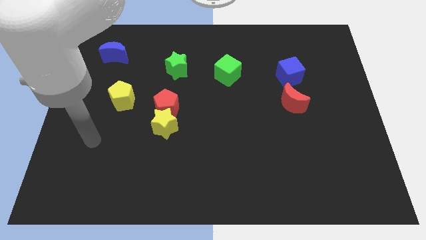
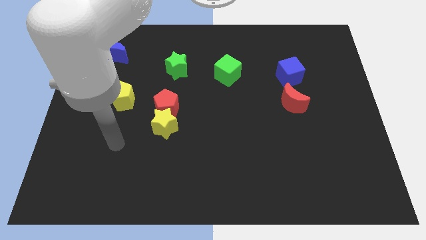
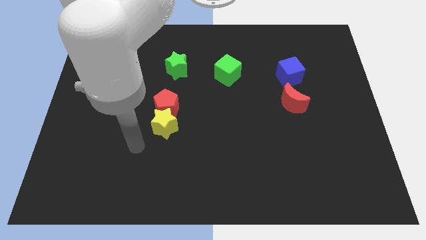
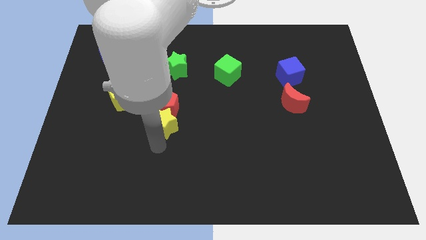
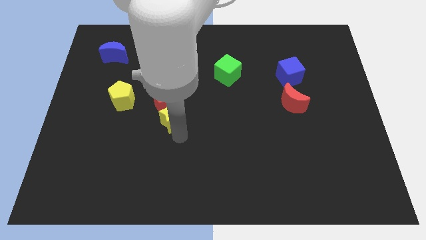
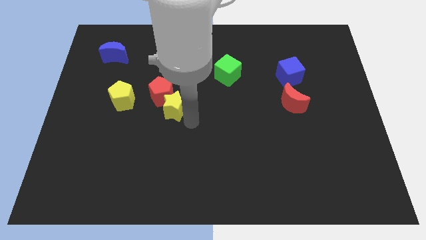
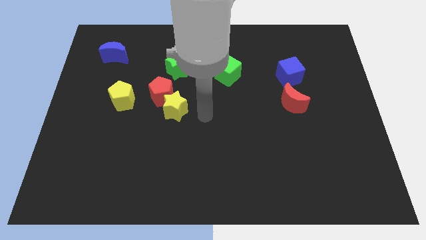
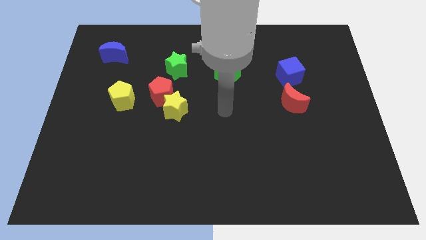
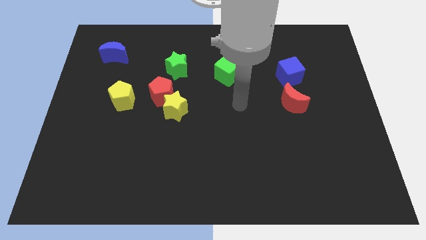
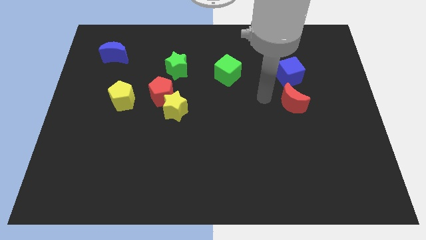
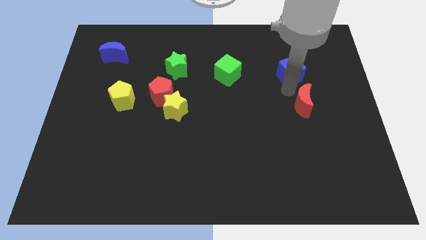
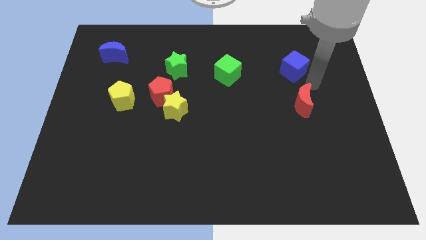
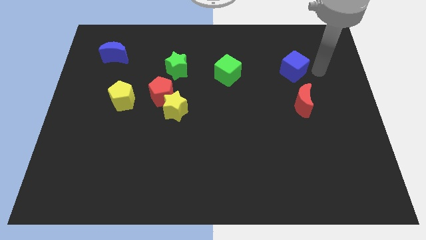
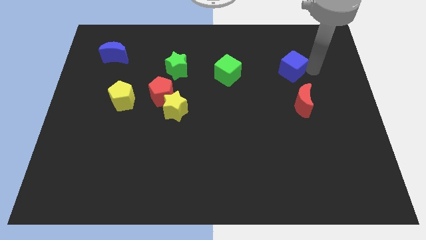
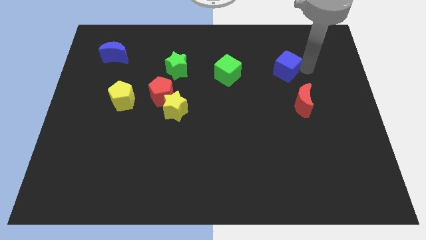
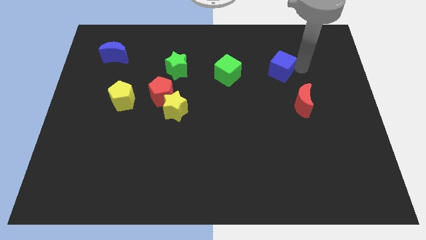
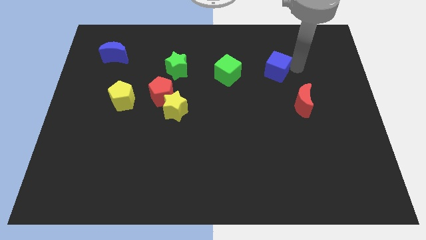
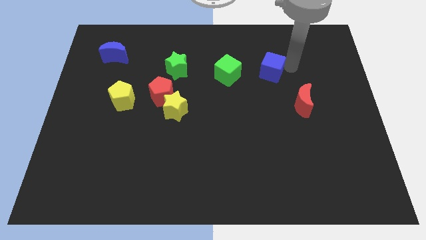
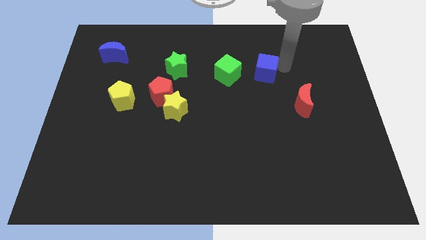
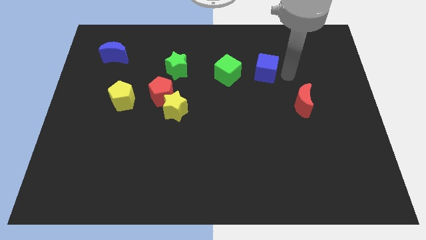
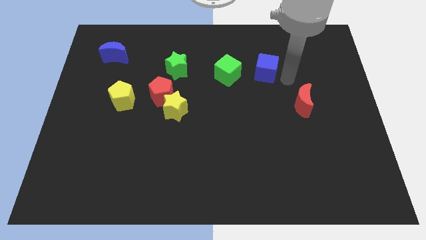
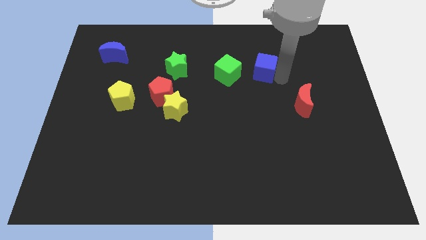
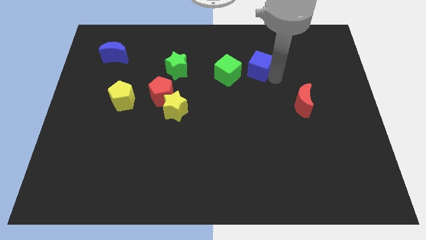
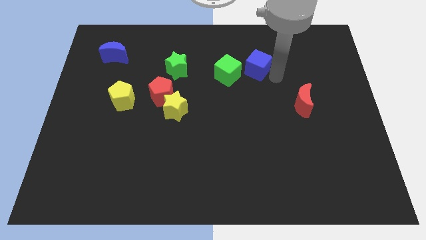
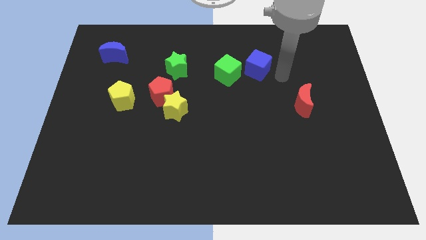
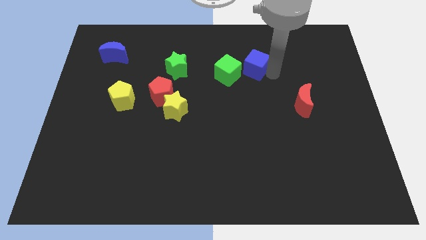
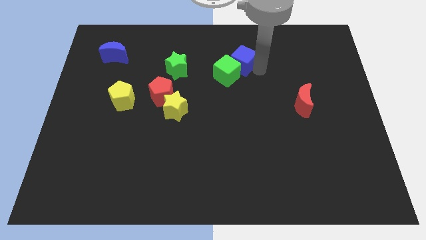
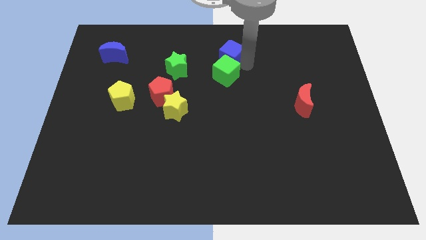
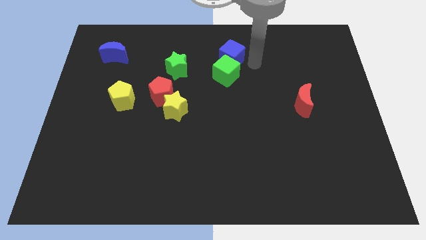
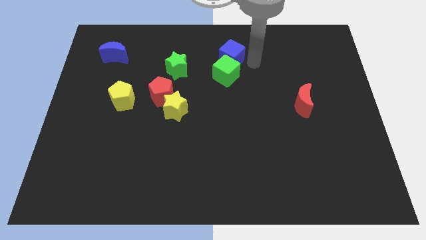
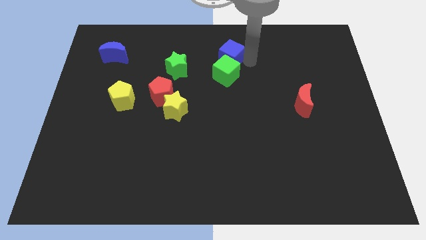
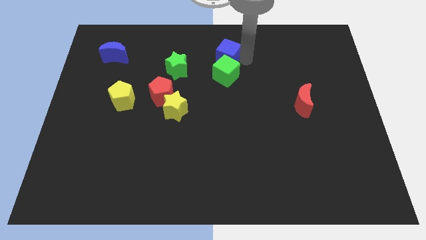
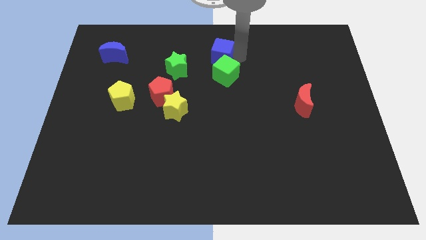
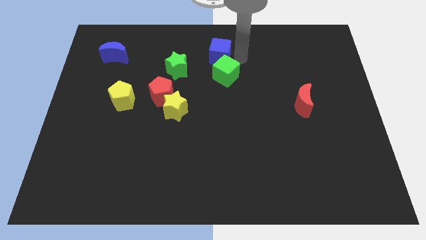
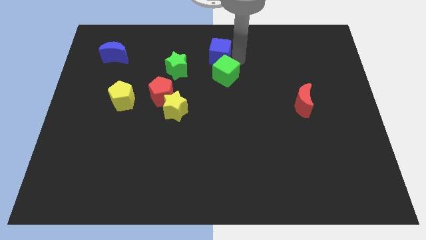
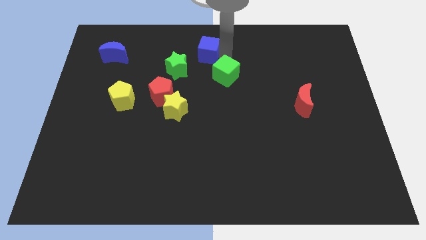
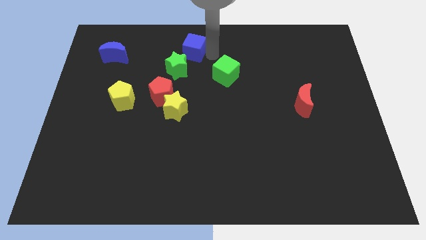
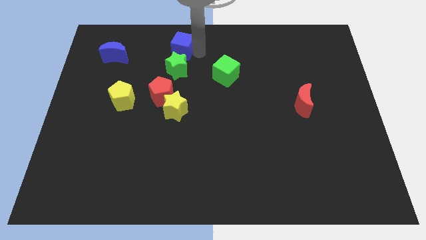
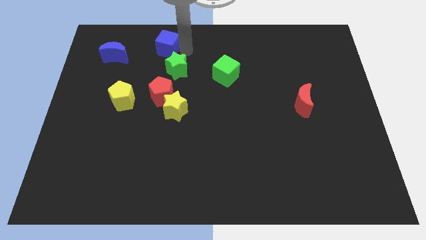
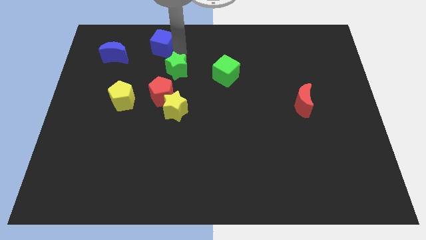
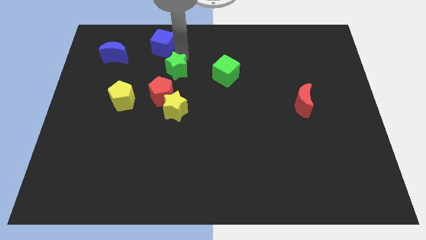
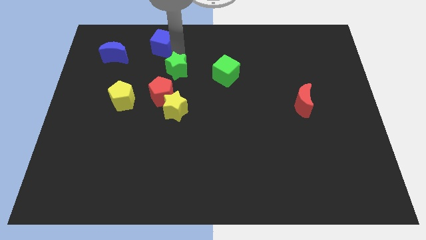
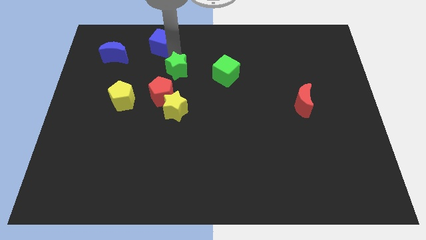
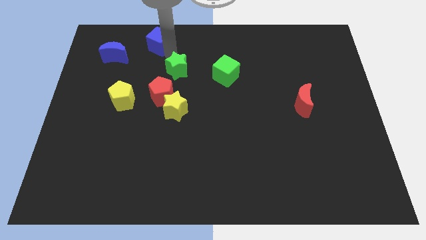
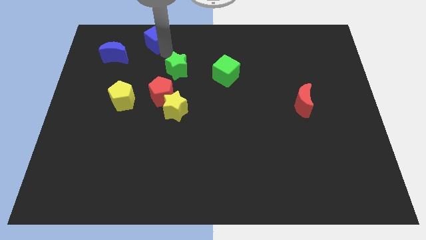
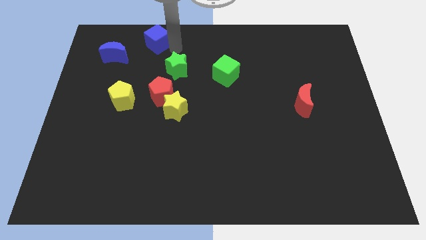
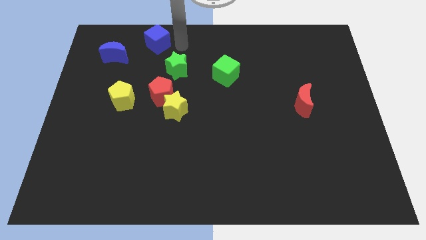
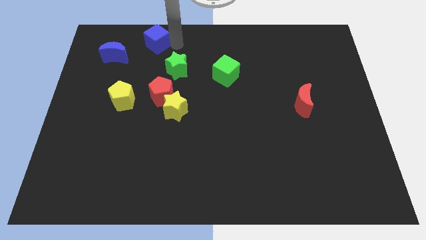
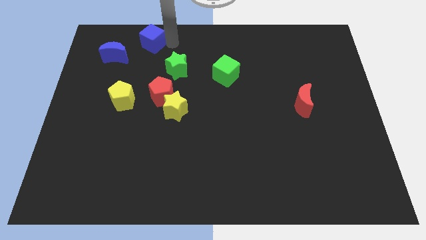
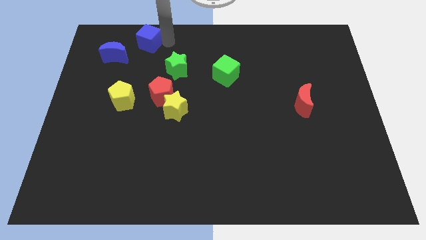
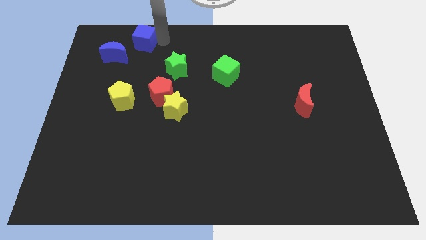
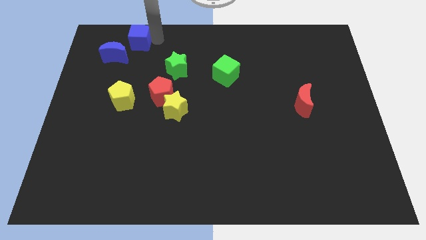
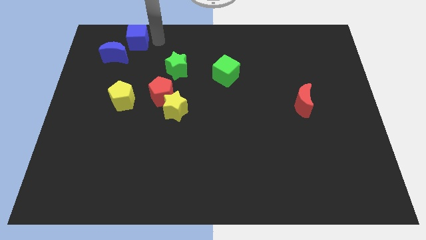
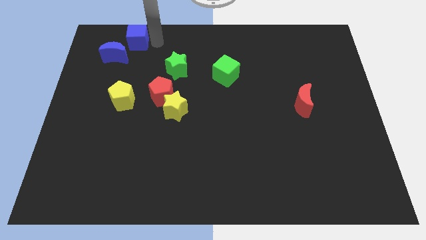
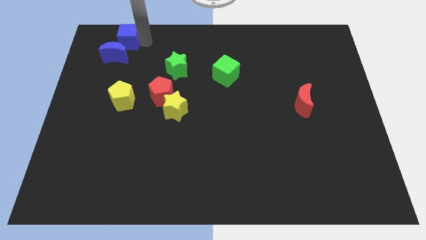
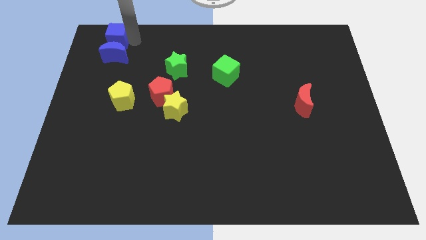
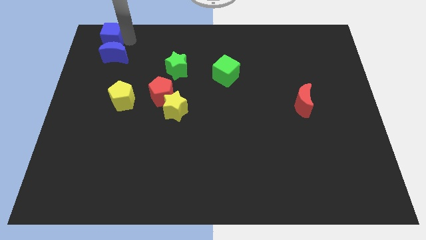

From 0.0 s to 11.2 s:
slide the blue cube to the top left corner

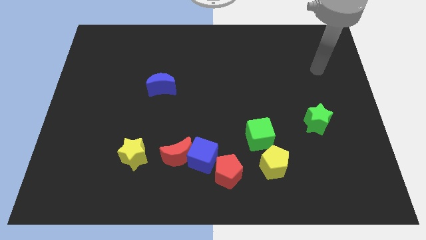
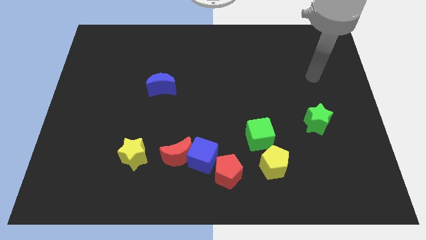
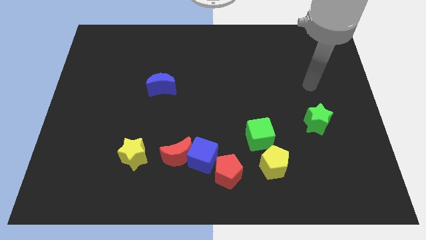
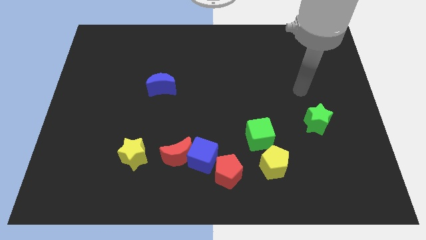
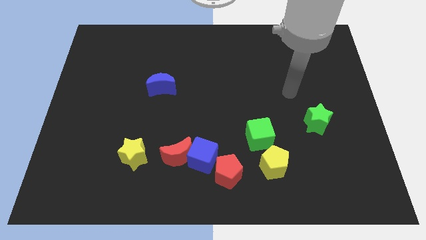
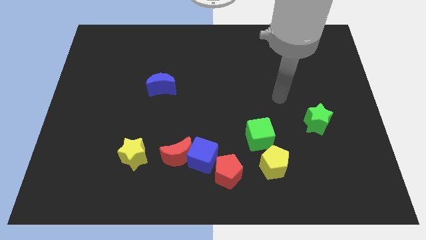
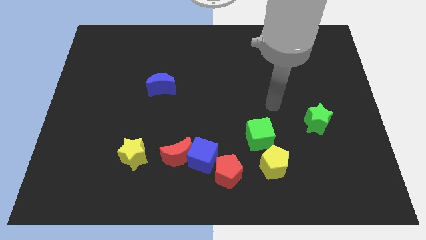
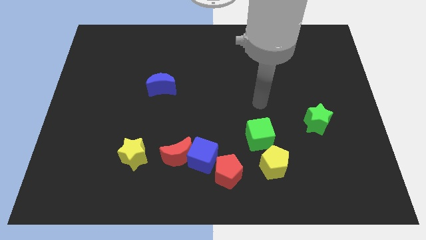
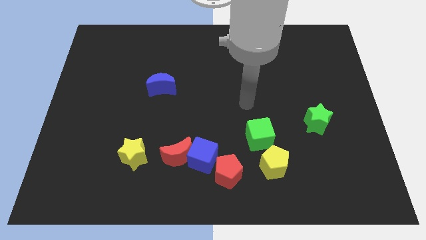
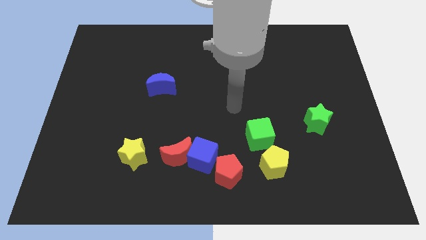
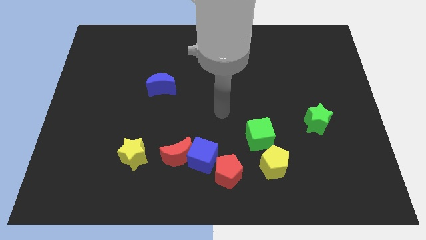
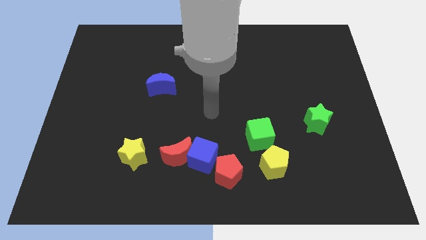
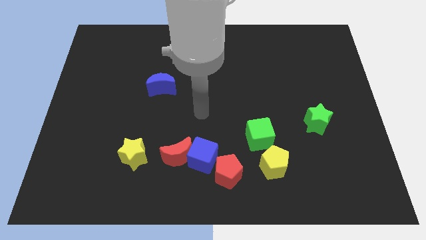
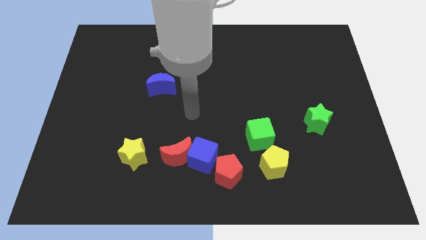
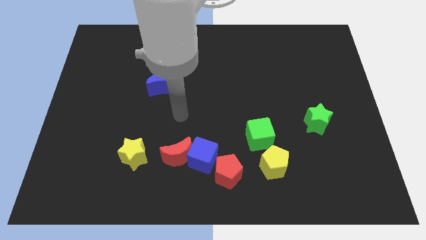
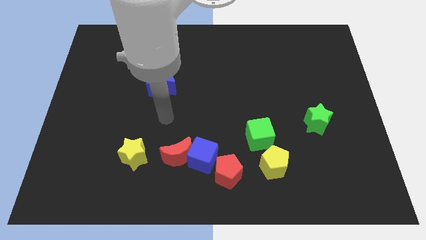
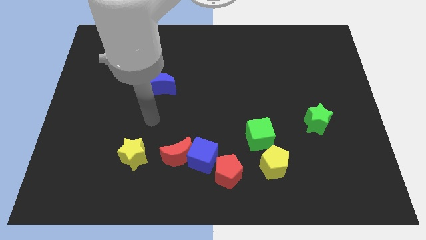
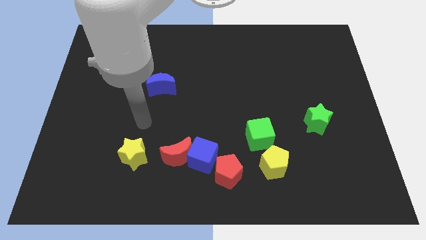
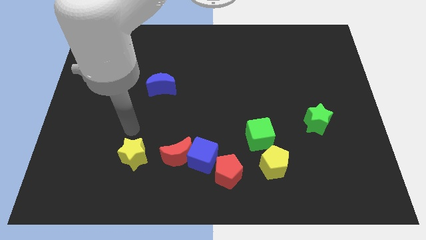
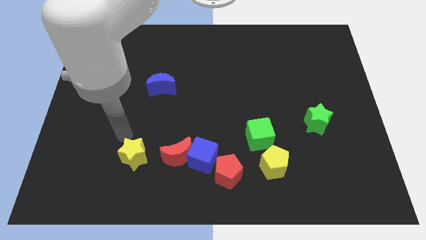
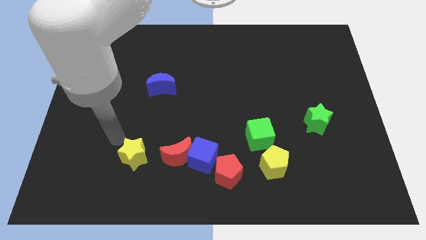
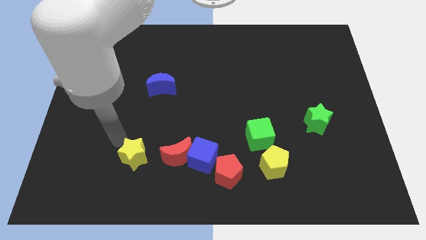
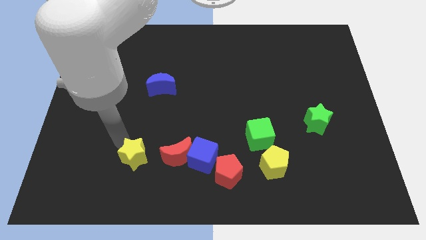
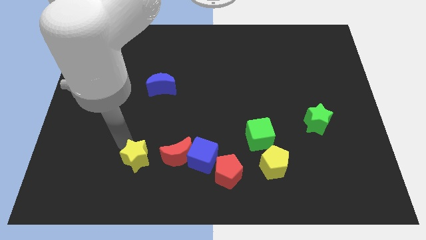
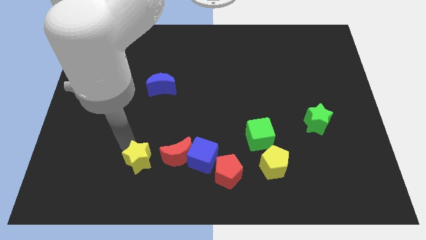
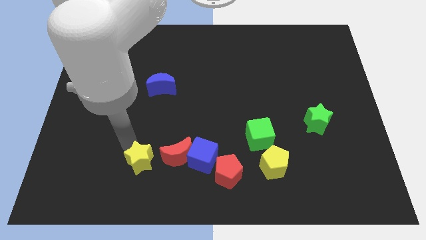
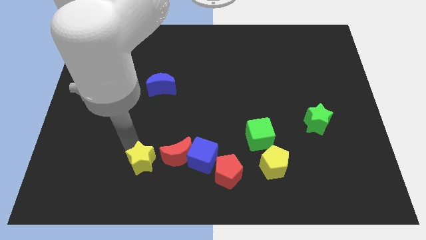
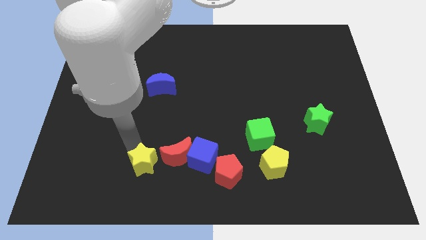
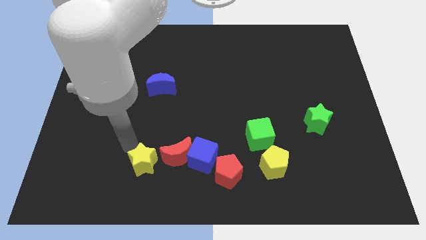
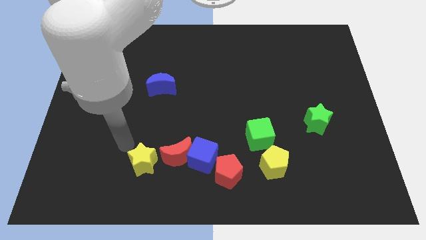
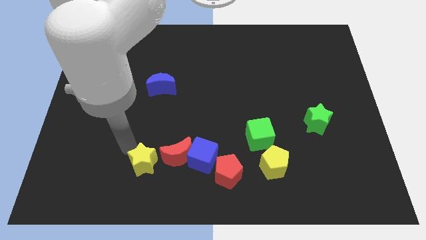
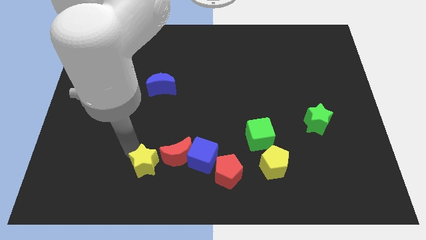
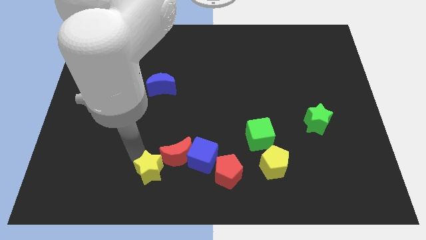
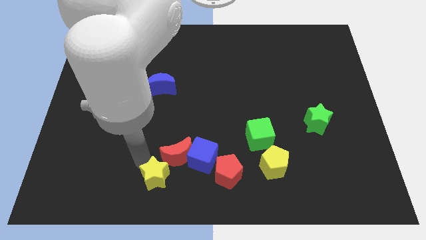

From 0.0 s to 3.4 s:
put the yellow star to the bottom
